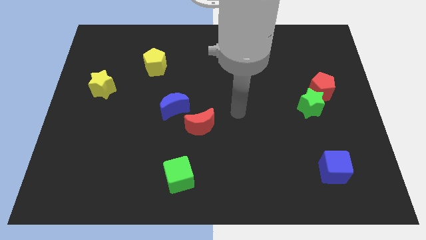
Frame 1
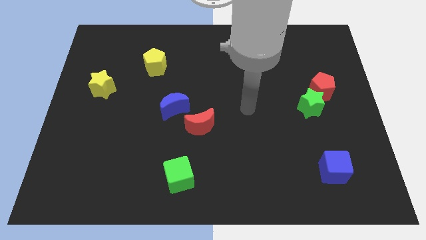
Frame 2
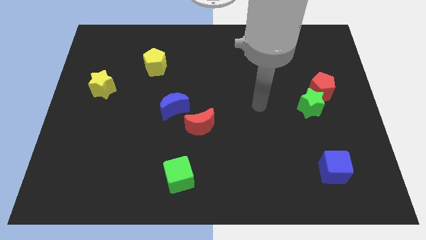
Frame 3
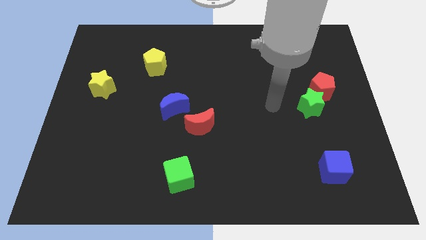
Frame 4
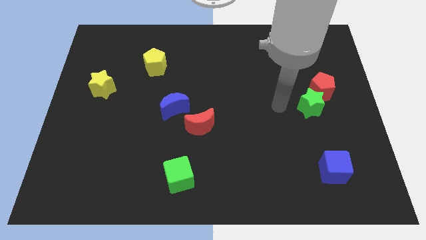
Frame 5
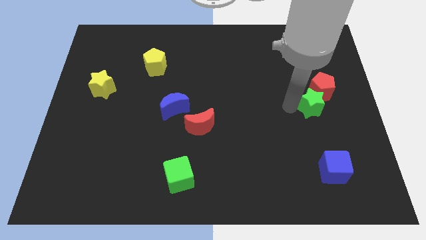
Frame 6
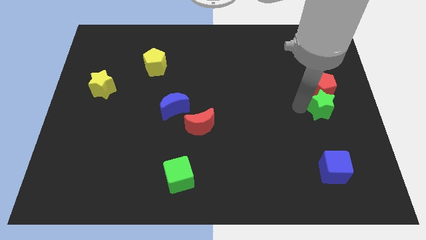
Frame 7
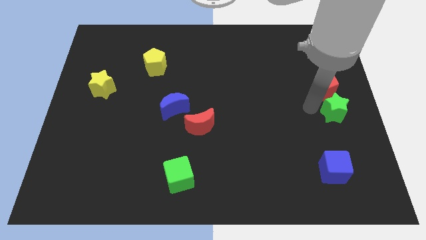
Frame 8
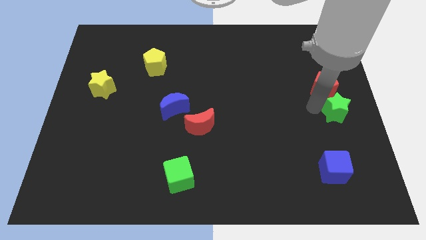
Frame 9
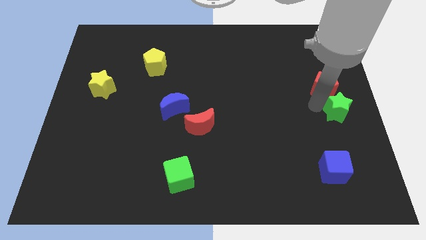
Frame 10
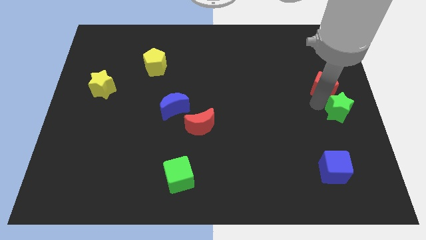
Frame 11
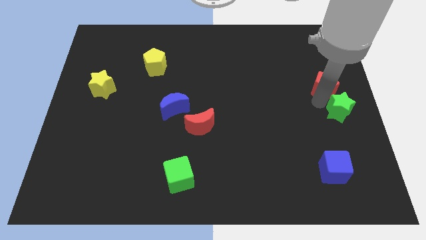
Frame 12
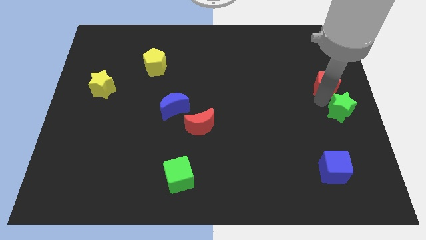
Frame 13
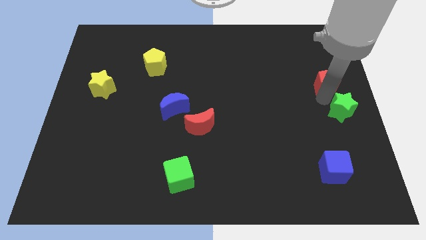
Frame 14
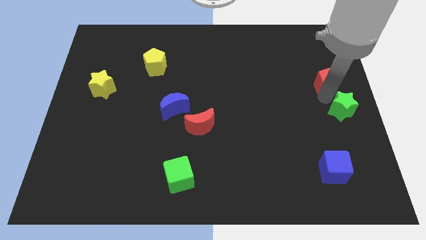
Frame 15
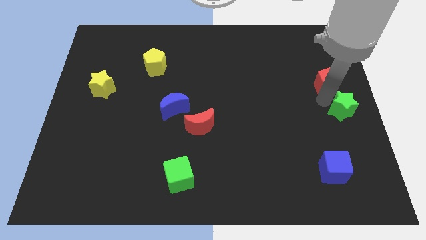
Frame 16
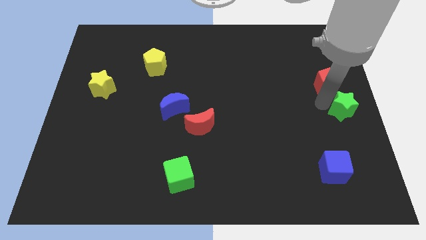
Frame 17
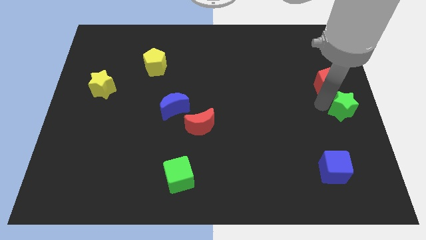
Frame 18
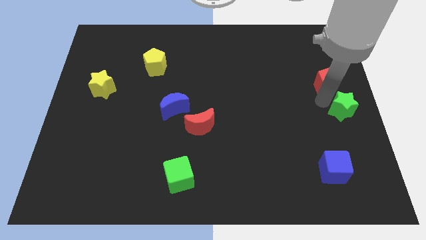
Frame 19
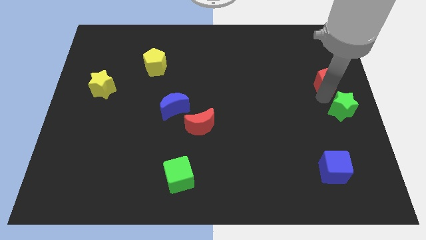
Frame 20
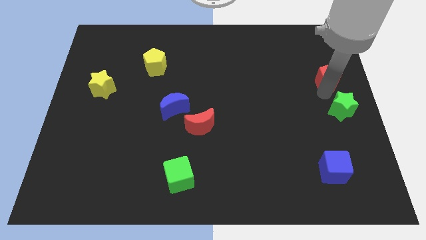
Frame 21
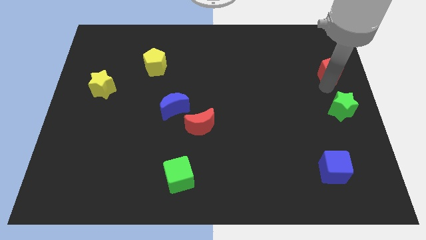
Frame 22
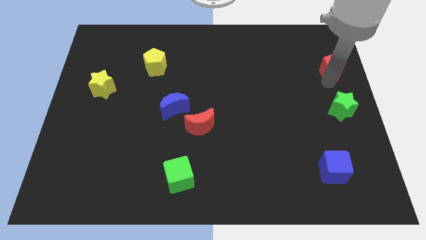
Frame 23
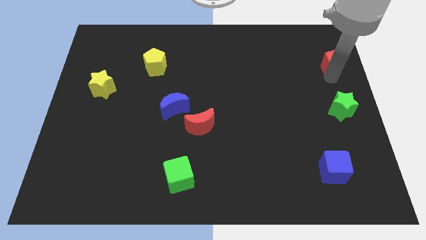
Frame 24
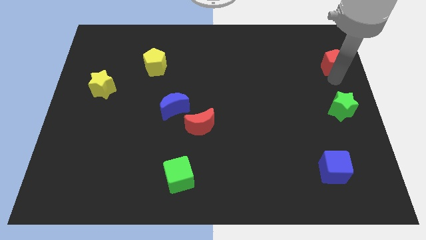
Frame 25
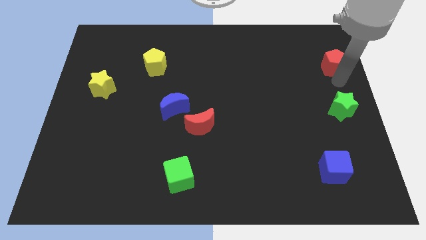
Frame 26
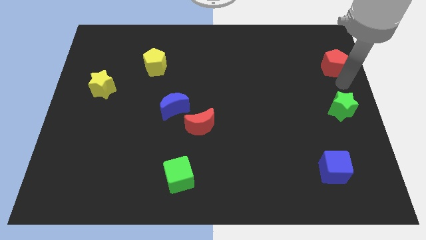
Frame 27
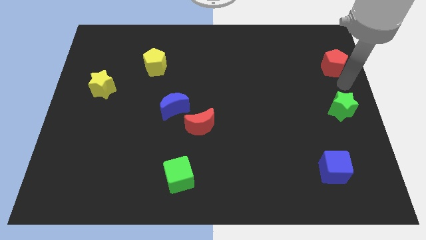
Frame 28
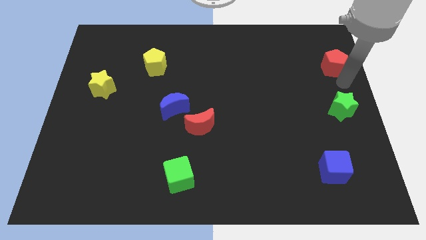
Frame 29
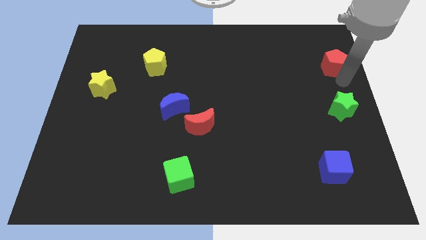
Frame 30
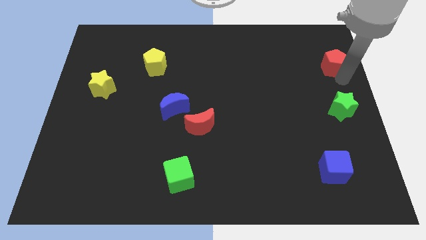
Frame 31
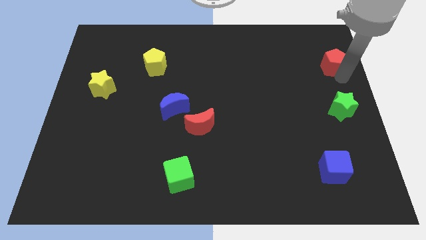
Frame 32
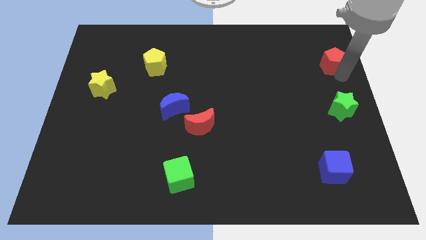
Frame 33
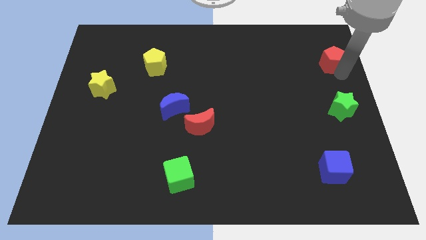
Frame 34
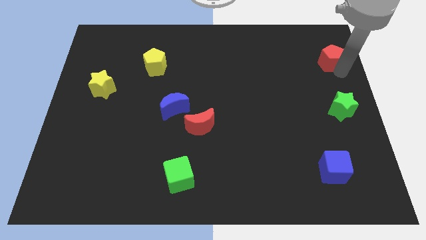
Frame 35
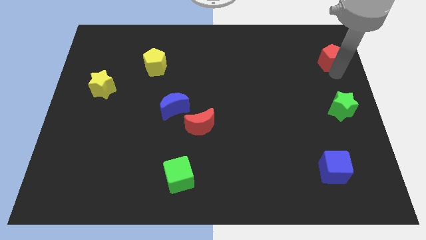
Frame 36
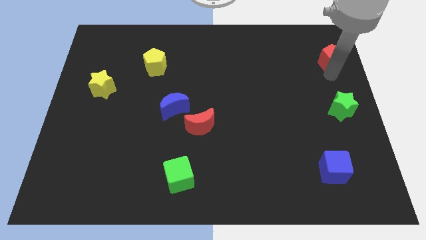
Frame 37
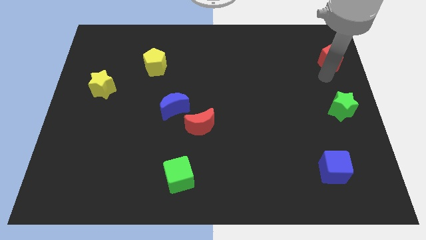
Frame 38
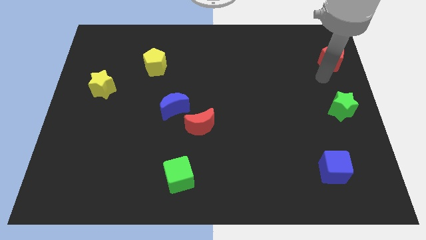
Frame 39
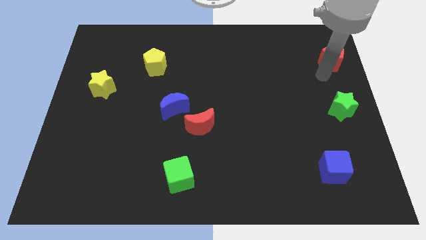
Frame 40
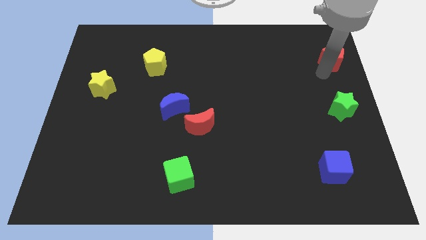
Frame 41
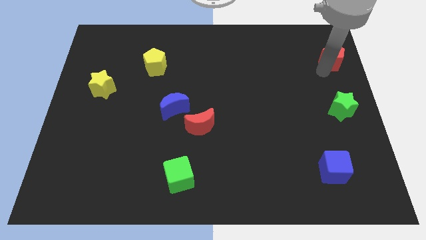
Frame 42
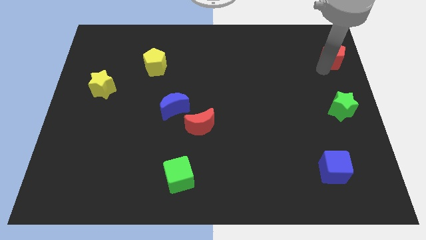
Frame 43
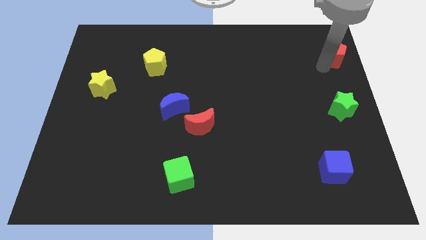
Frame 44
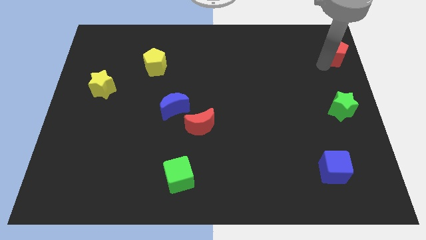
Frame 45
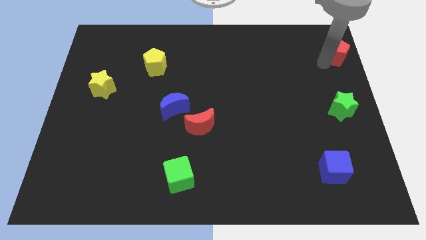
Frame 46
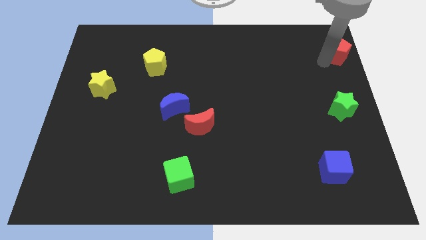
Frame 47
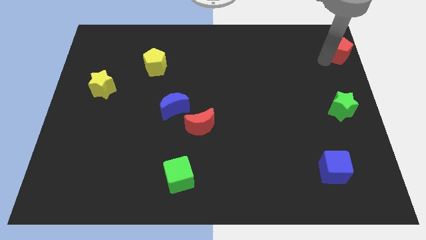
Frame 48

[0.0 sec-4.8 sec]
slide the red pentagon to the top right corner

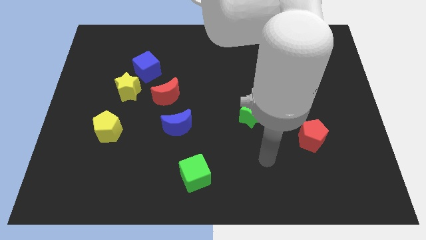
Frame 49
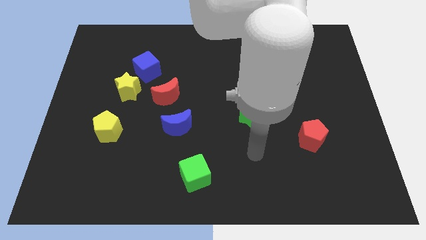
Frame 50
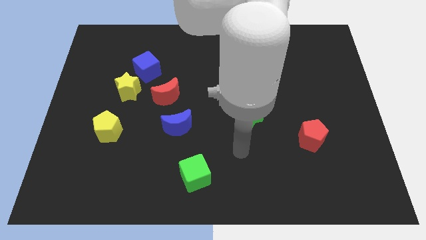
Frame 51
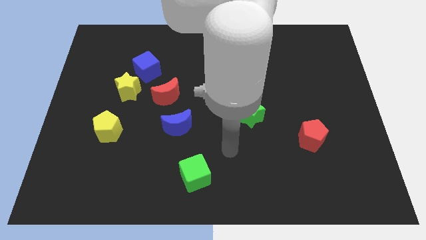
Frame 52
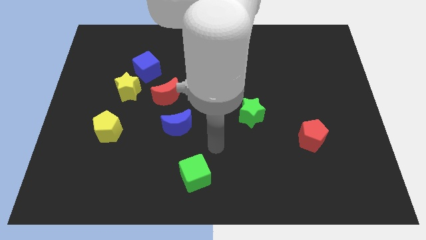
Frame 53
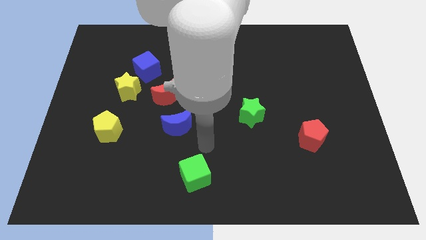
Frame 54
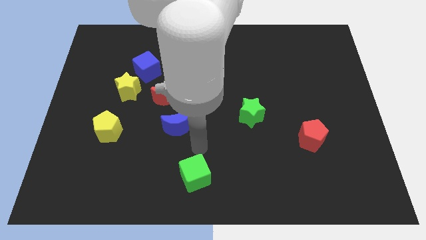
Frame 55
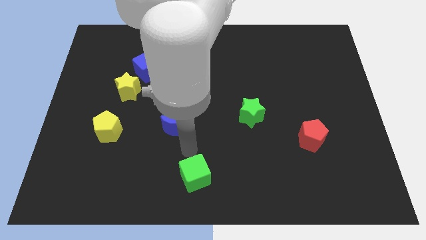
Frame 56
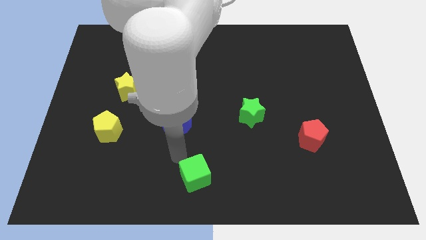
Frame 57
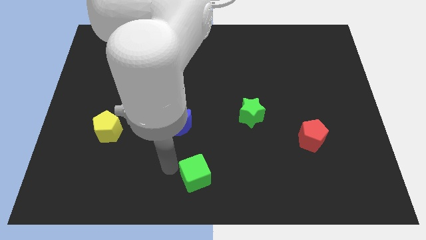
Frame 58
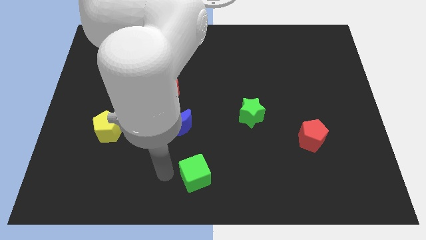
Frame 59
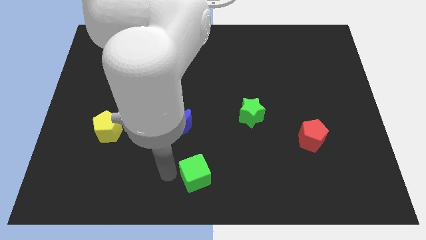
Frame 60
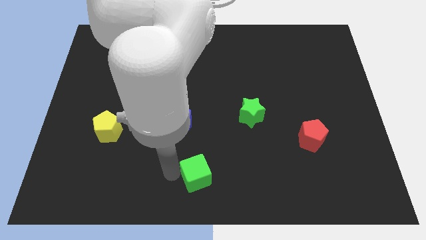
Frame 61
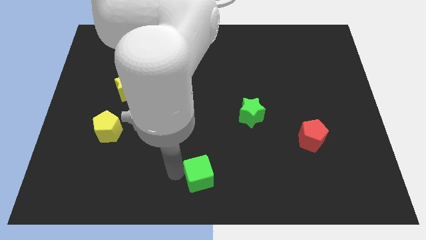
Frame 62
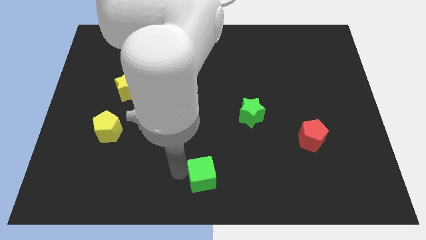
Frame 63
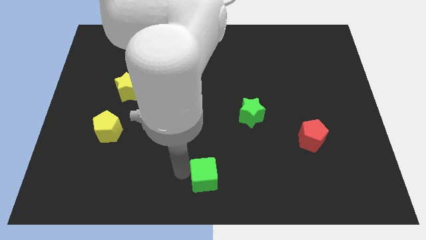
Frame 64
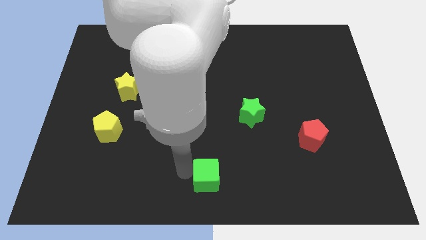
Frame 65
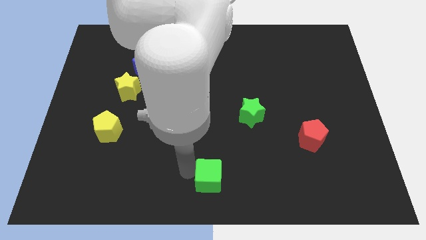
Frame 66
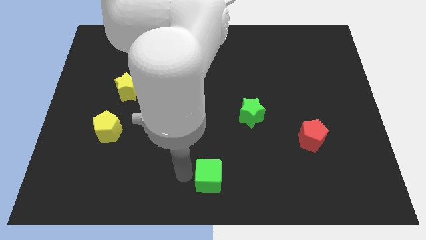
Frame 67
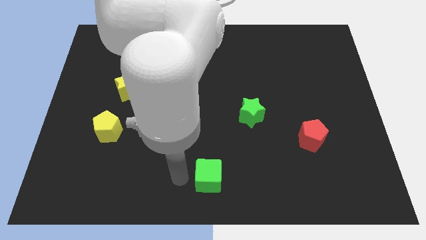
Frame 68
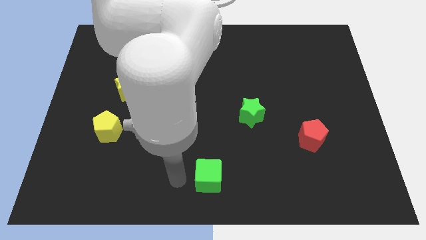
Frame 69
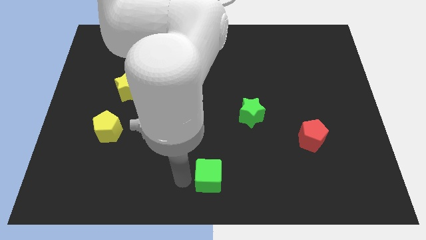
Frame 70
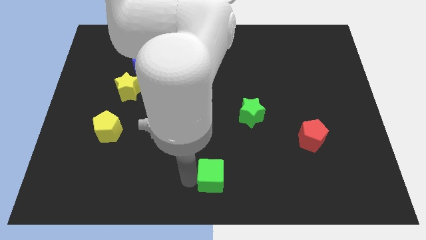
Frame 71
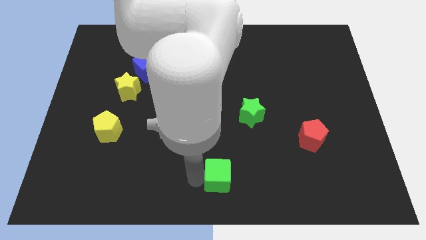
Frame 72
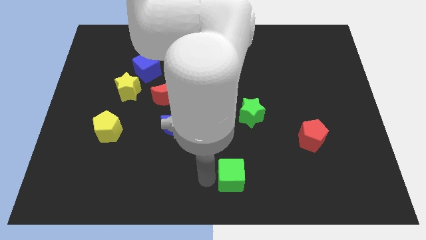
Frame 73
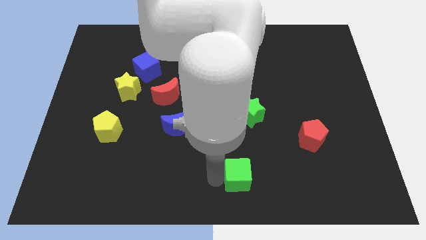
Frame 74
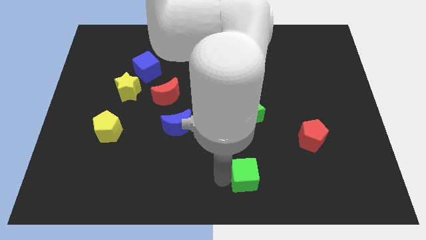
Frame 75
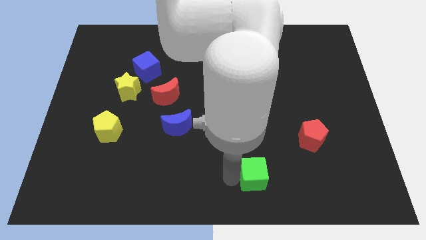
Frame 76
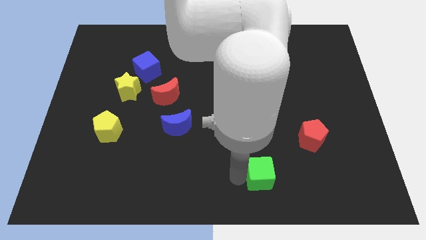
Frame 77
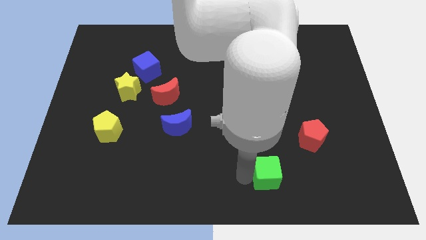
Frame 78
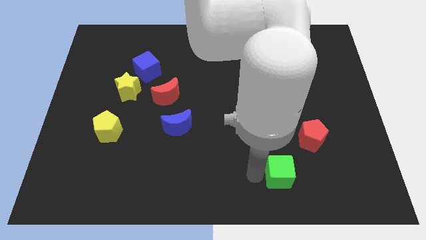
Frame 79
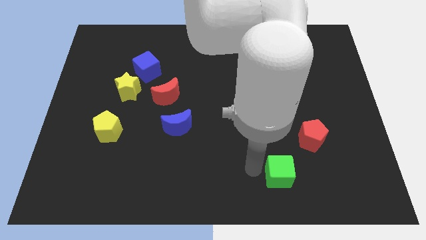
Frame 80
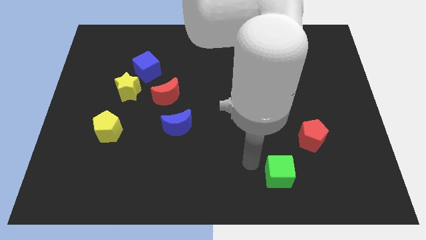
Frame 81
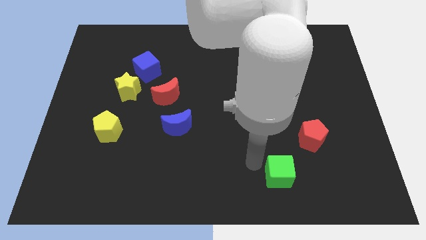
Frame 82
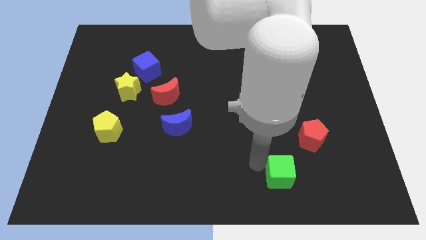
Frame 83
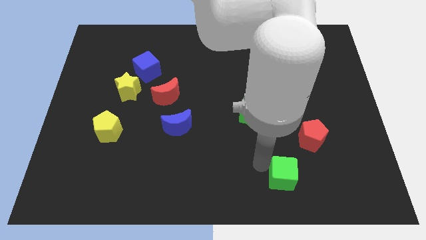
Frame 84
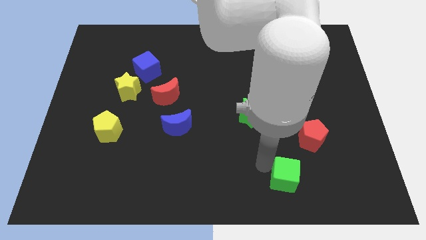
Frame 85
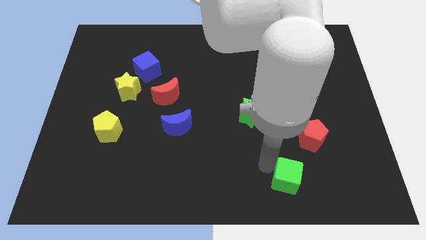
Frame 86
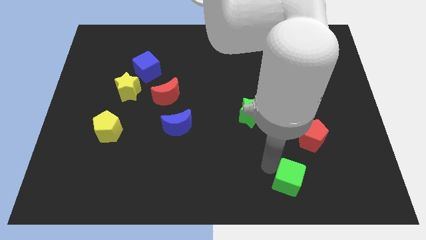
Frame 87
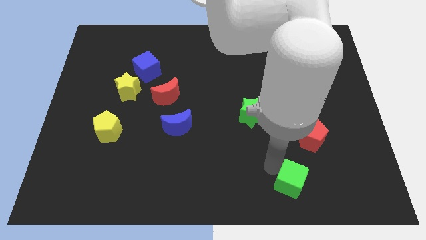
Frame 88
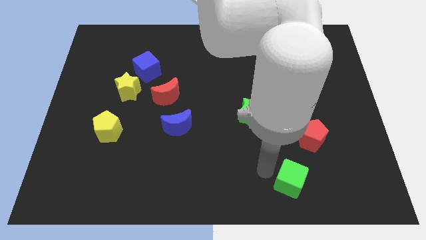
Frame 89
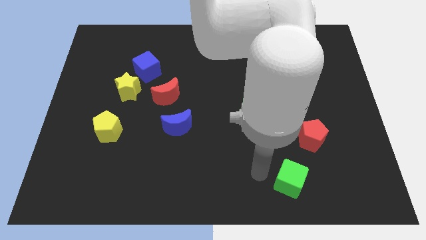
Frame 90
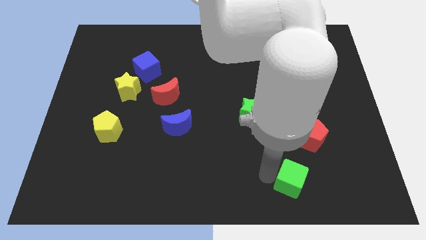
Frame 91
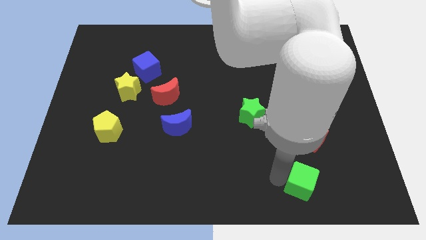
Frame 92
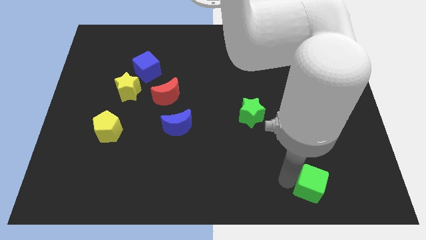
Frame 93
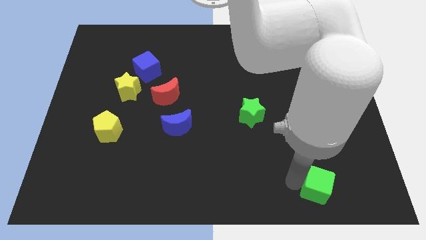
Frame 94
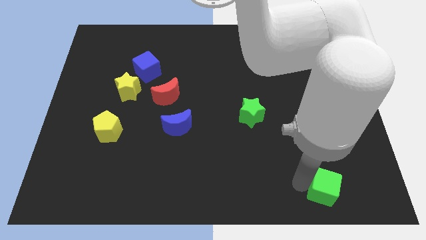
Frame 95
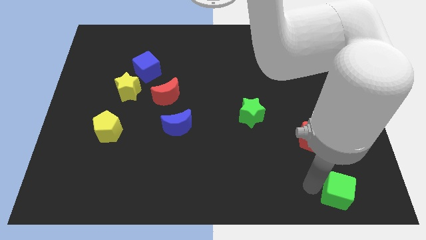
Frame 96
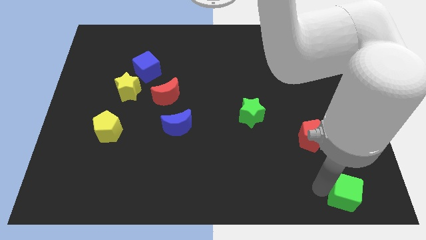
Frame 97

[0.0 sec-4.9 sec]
push the green cube to the lower right corner
